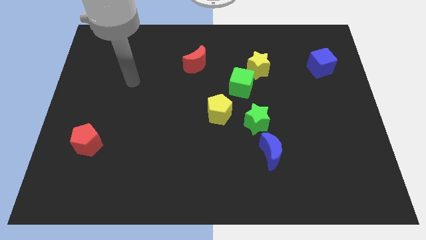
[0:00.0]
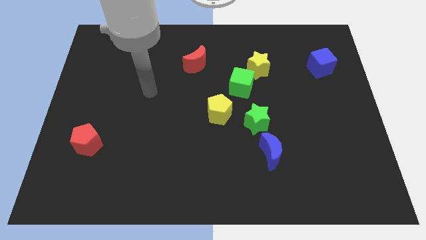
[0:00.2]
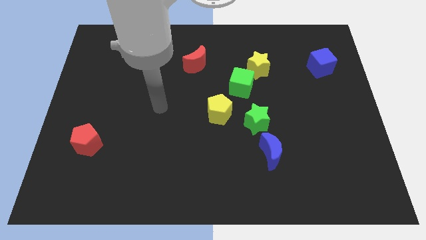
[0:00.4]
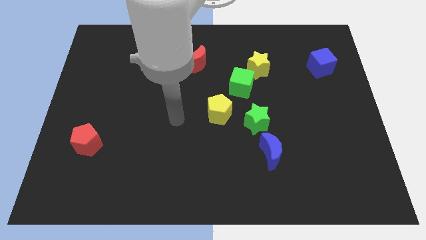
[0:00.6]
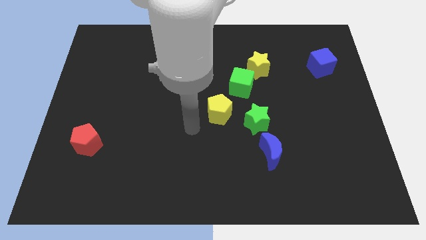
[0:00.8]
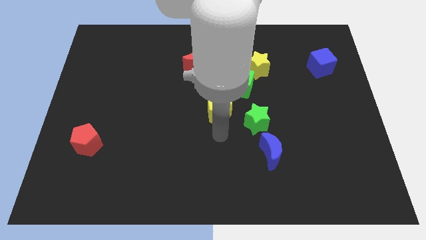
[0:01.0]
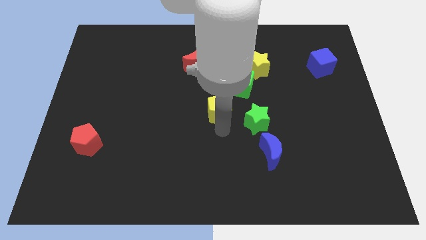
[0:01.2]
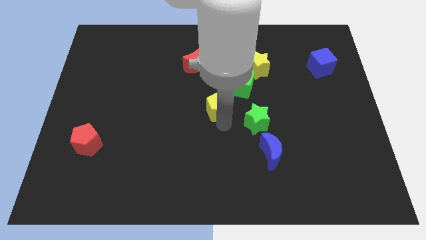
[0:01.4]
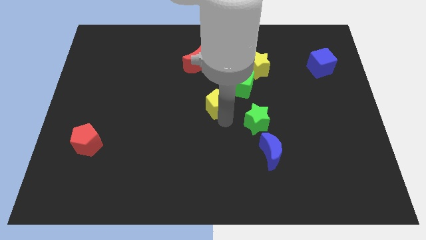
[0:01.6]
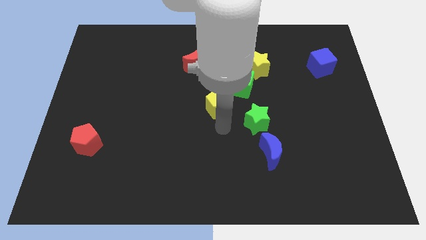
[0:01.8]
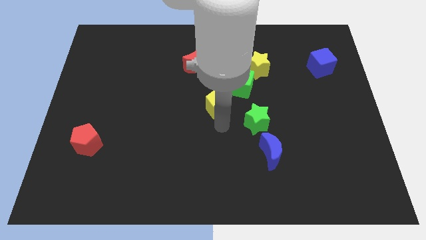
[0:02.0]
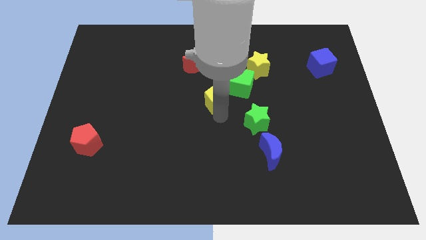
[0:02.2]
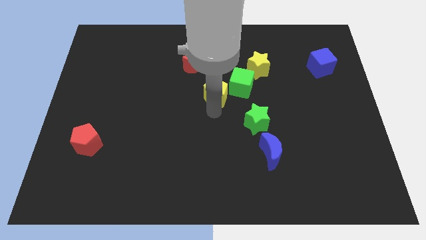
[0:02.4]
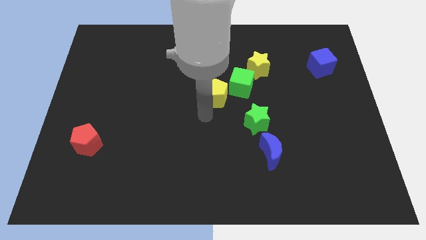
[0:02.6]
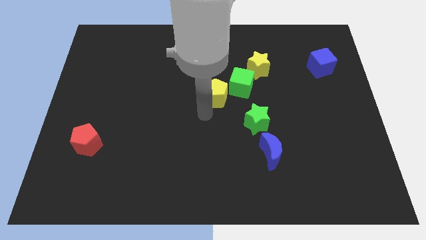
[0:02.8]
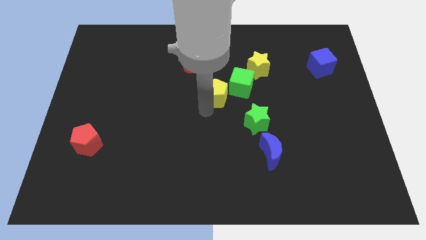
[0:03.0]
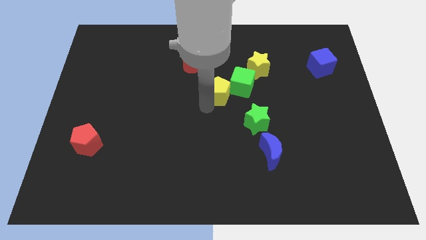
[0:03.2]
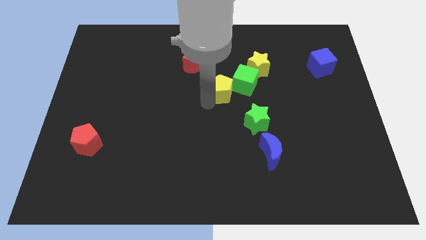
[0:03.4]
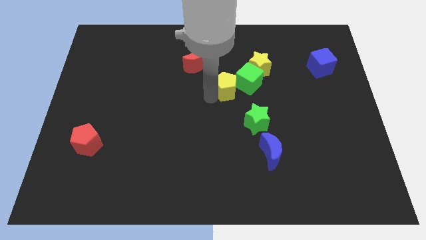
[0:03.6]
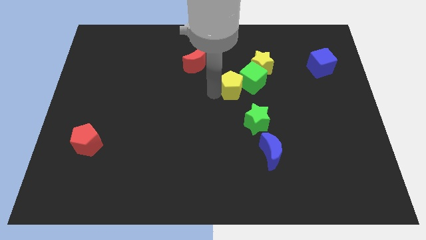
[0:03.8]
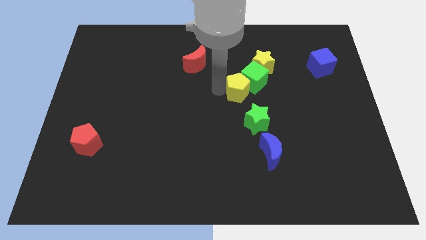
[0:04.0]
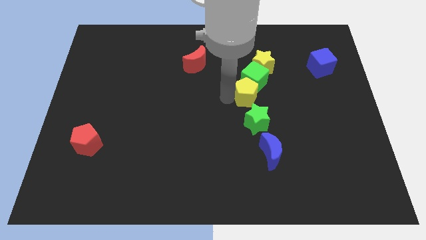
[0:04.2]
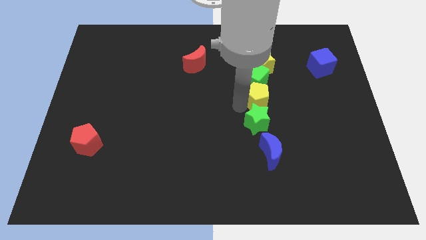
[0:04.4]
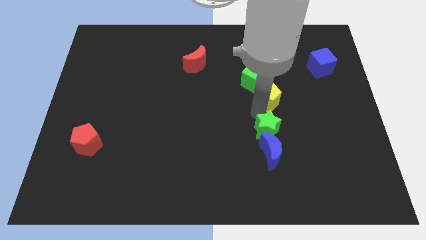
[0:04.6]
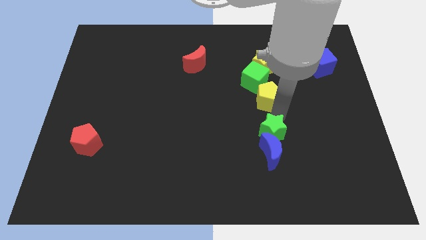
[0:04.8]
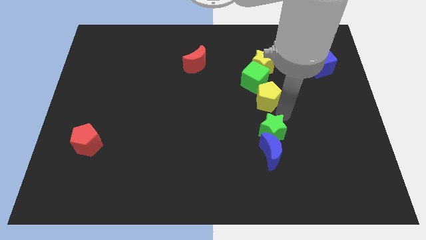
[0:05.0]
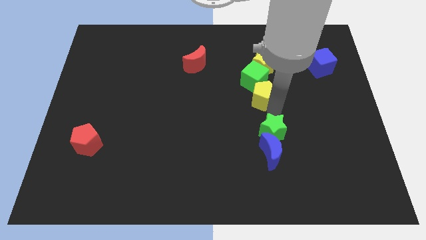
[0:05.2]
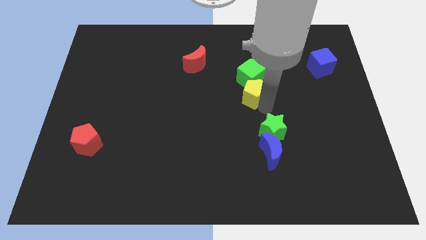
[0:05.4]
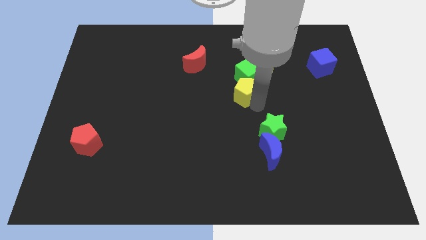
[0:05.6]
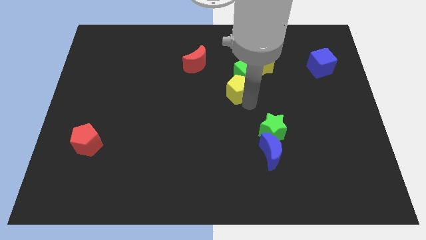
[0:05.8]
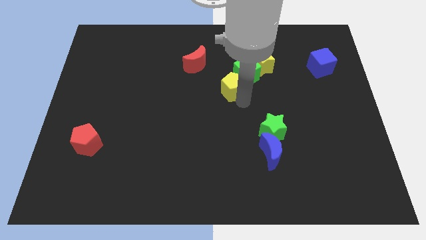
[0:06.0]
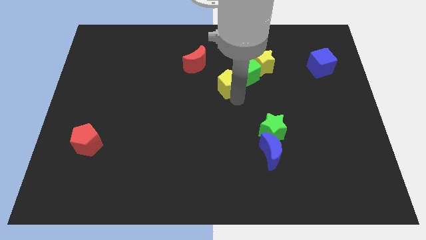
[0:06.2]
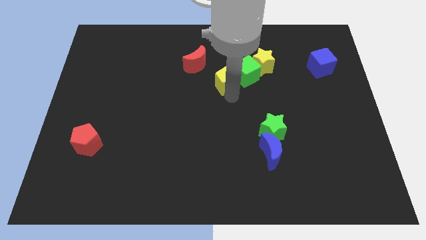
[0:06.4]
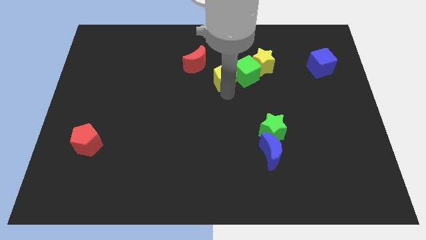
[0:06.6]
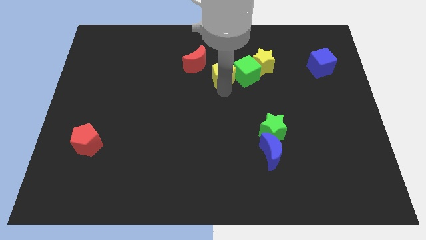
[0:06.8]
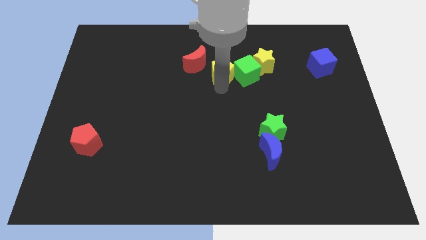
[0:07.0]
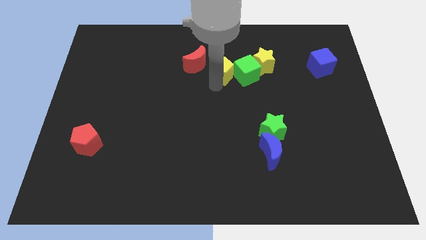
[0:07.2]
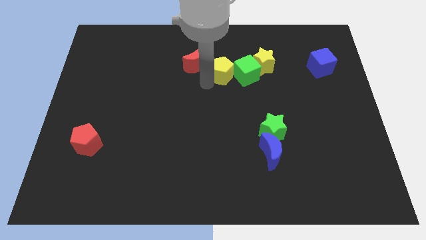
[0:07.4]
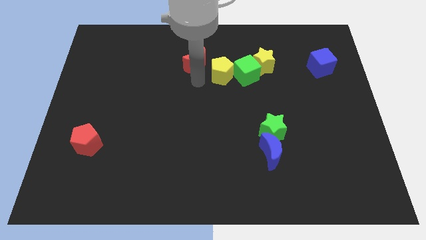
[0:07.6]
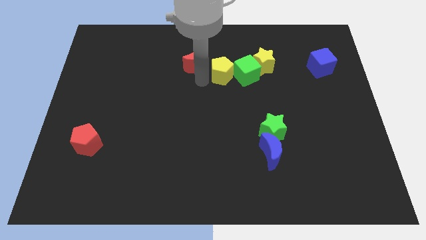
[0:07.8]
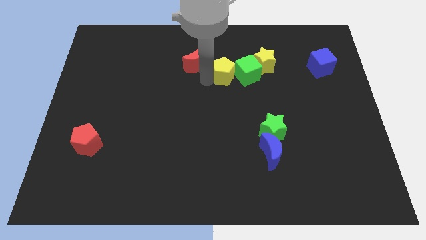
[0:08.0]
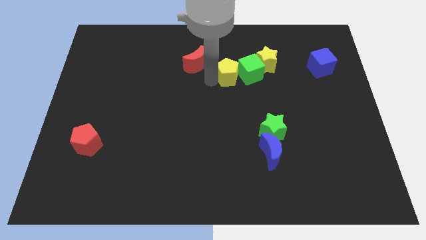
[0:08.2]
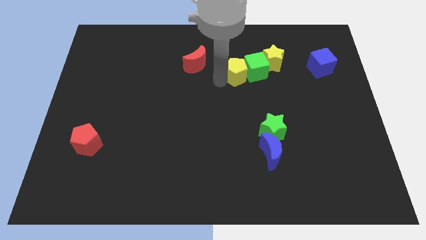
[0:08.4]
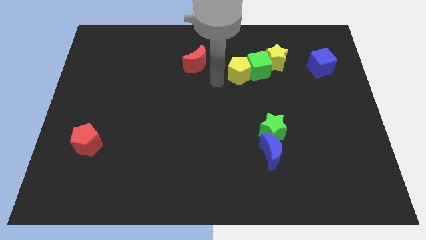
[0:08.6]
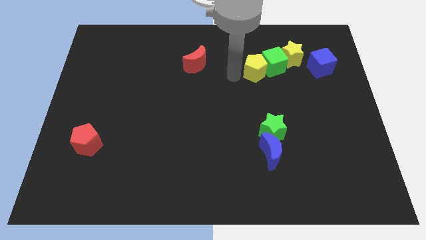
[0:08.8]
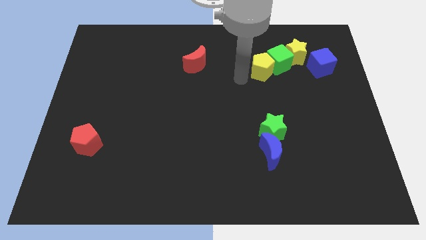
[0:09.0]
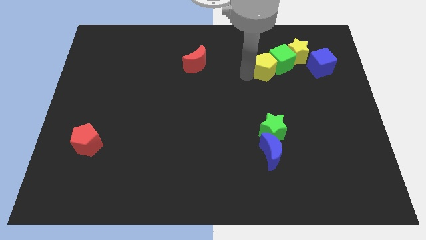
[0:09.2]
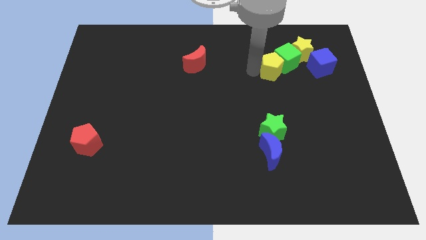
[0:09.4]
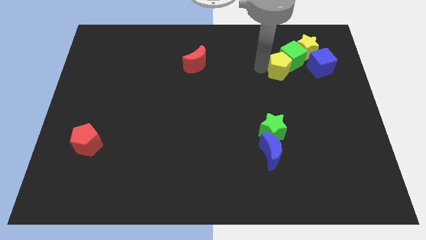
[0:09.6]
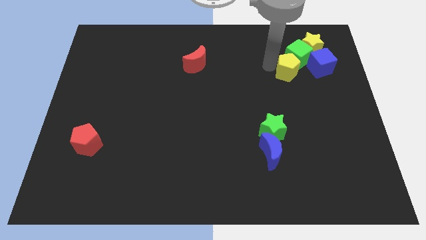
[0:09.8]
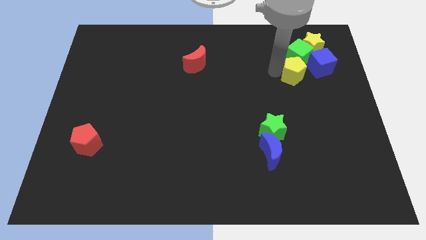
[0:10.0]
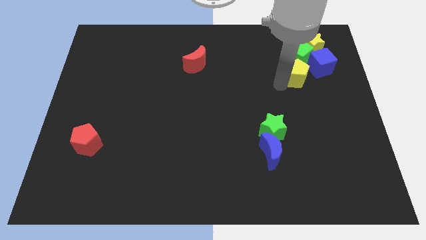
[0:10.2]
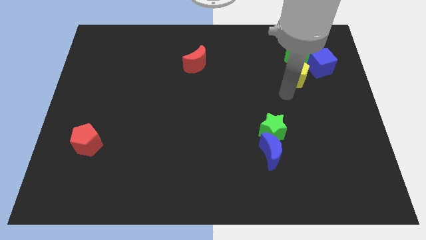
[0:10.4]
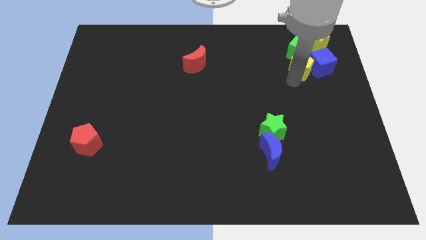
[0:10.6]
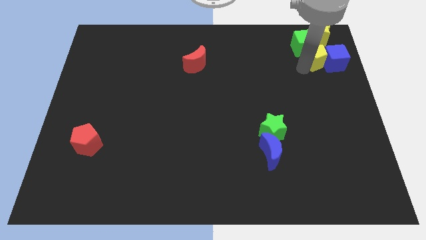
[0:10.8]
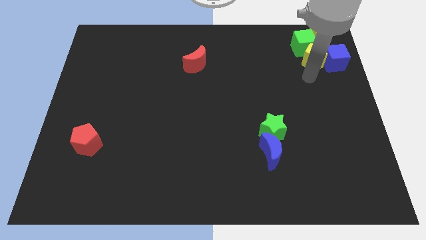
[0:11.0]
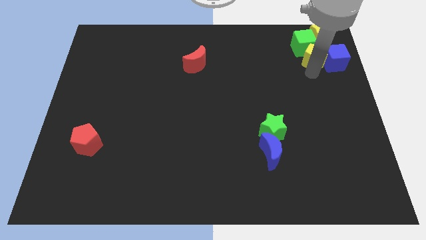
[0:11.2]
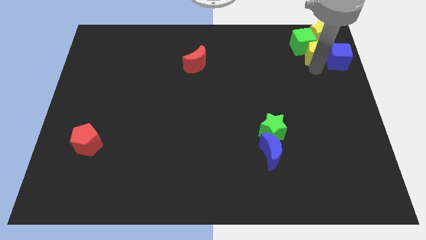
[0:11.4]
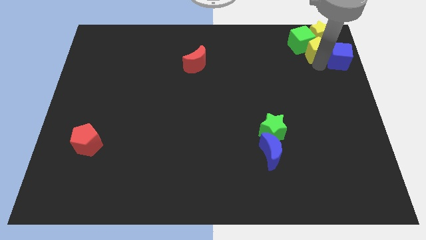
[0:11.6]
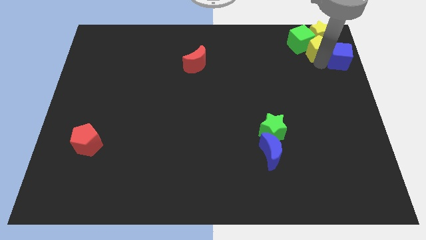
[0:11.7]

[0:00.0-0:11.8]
push the yellow pentagon next to the yellow star

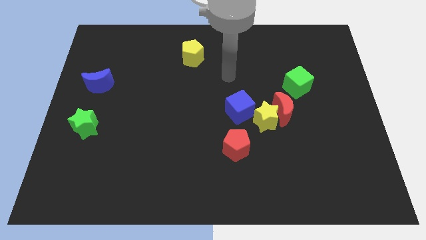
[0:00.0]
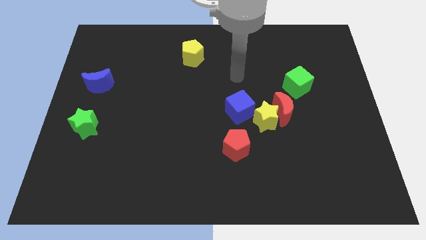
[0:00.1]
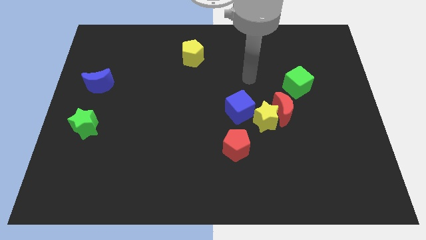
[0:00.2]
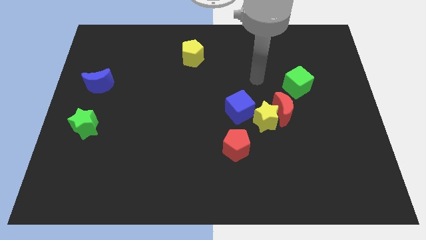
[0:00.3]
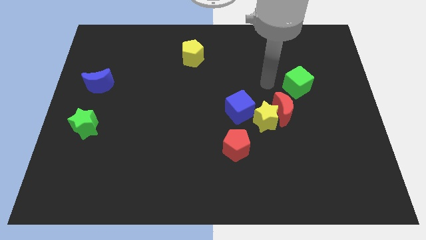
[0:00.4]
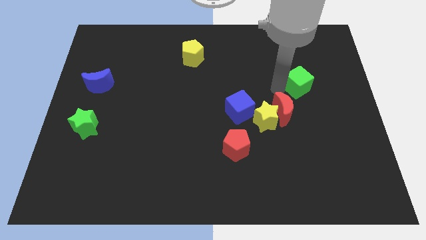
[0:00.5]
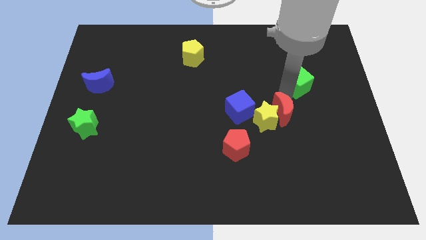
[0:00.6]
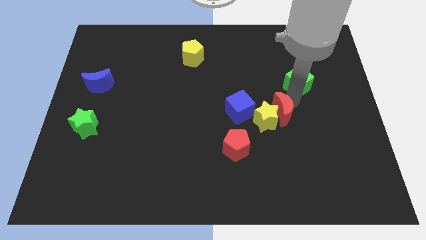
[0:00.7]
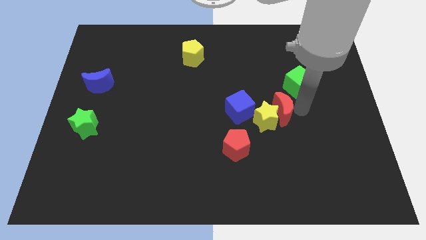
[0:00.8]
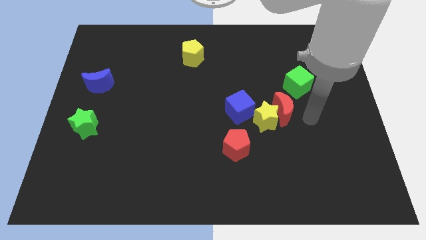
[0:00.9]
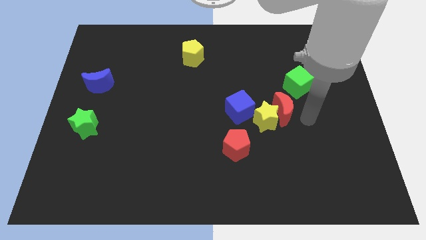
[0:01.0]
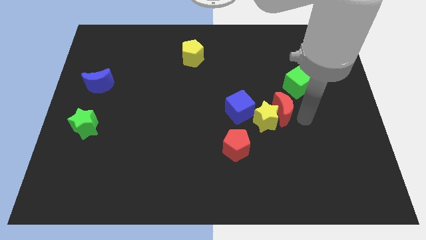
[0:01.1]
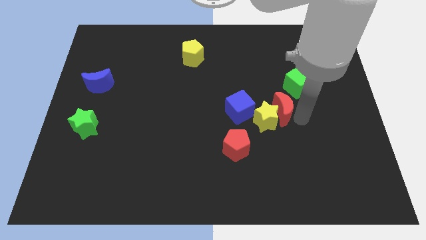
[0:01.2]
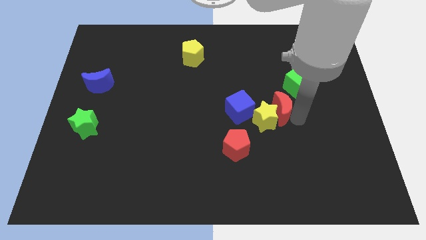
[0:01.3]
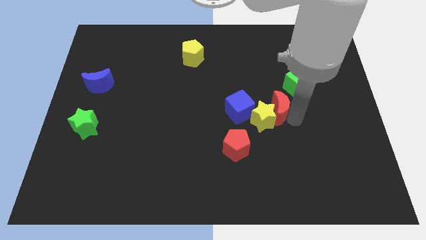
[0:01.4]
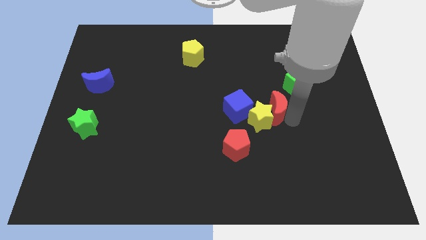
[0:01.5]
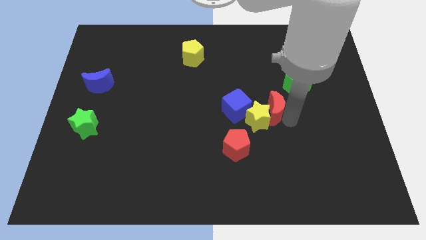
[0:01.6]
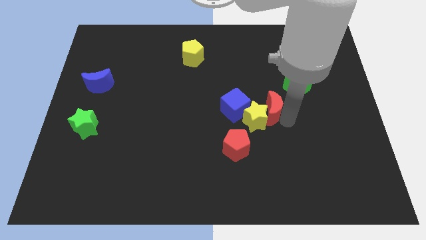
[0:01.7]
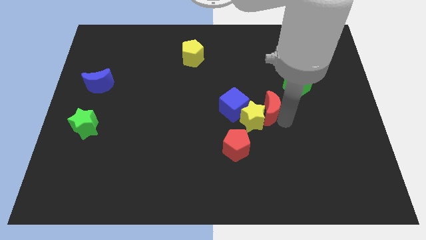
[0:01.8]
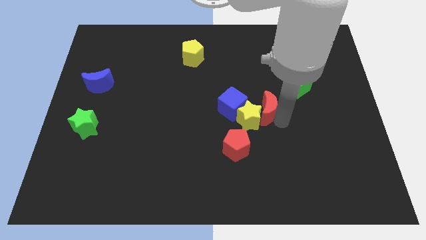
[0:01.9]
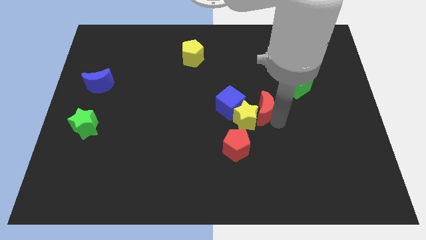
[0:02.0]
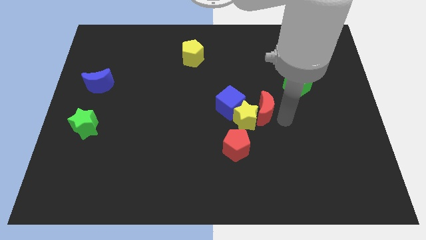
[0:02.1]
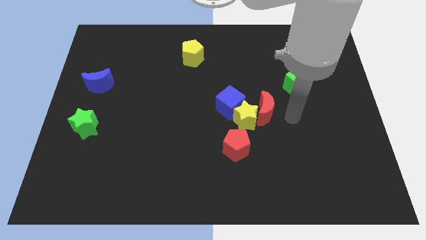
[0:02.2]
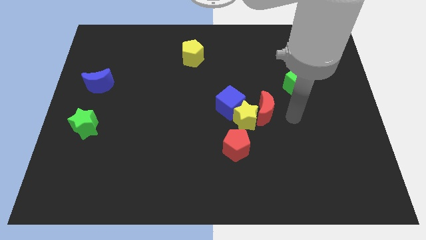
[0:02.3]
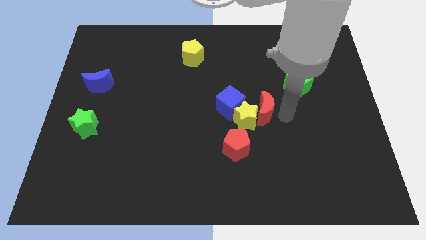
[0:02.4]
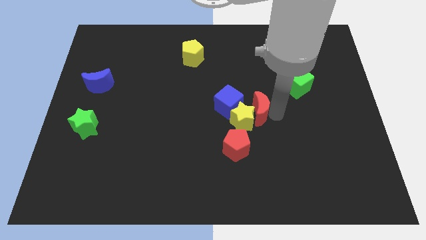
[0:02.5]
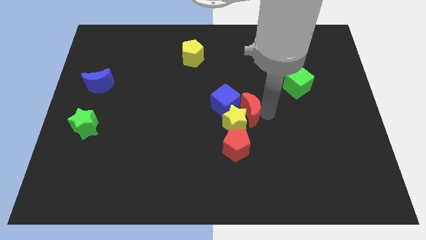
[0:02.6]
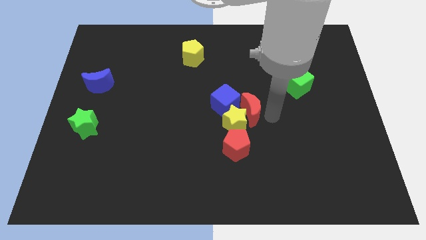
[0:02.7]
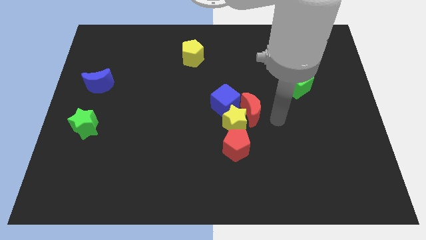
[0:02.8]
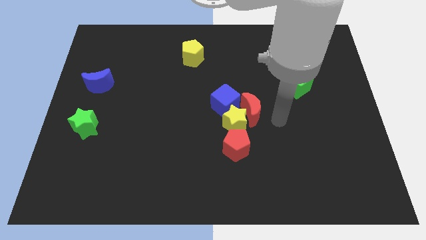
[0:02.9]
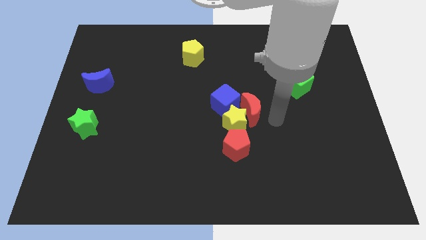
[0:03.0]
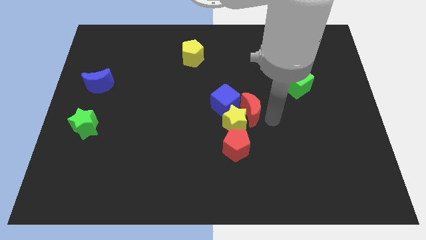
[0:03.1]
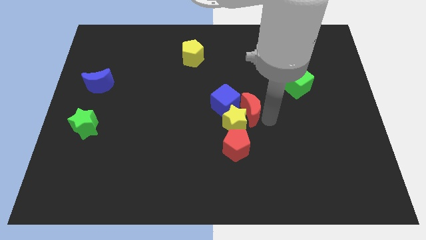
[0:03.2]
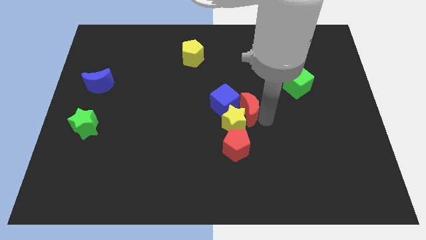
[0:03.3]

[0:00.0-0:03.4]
put the red moon next to the blue cube
